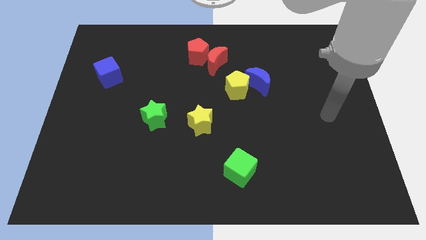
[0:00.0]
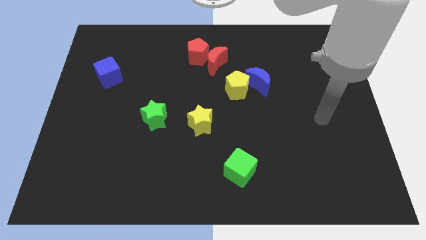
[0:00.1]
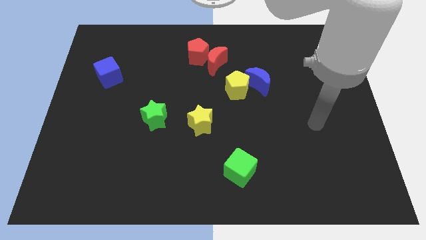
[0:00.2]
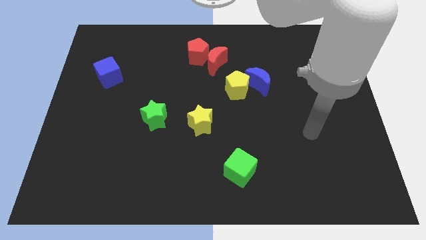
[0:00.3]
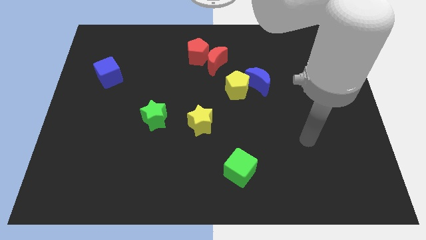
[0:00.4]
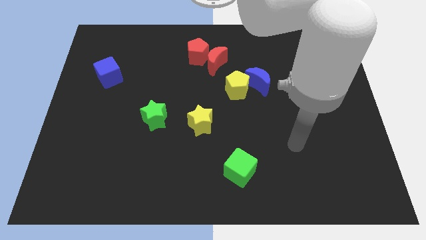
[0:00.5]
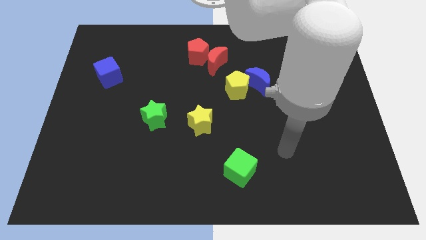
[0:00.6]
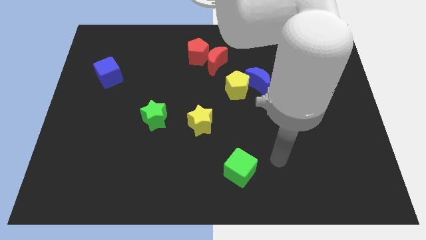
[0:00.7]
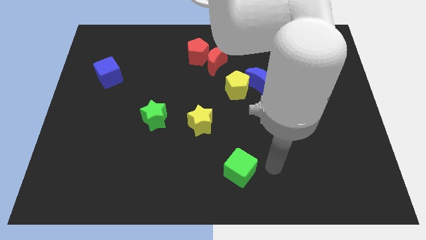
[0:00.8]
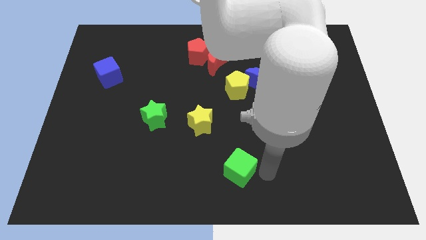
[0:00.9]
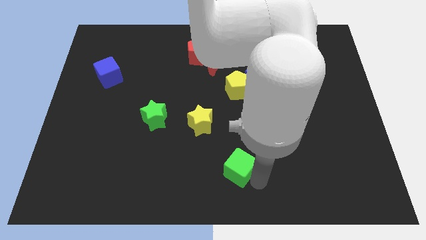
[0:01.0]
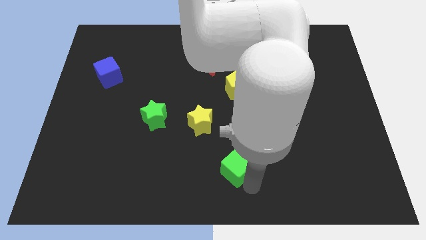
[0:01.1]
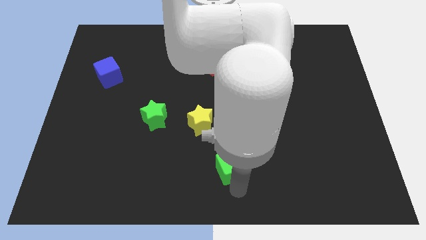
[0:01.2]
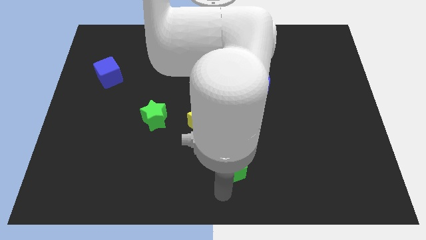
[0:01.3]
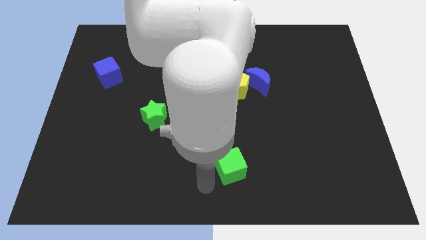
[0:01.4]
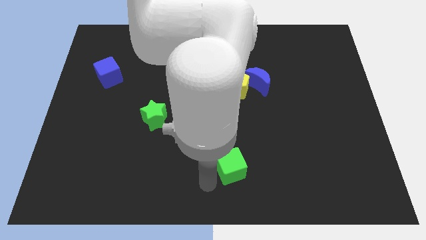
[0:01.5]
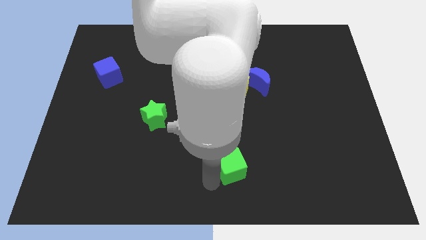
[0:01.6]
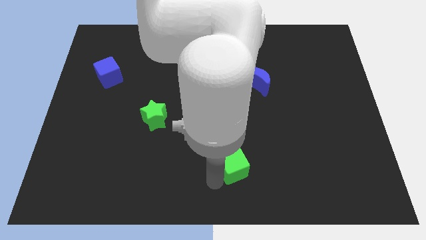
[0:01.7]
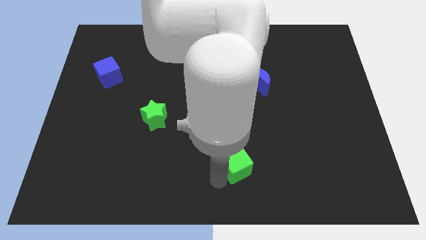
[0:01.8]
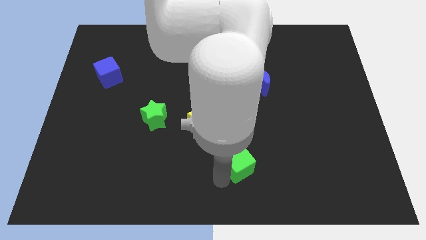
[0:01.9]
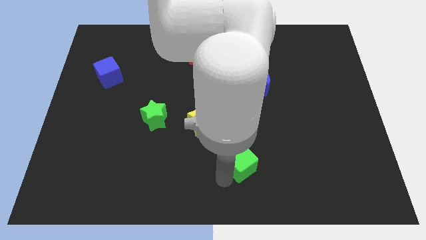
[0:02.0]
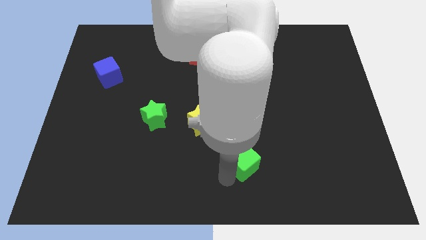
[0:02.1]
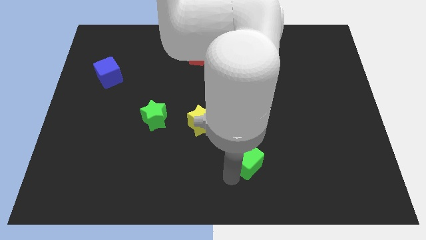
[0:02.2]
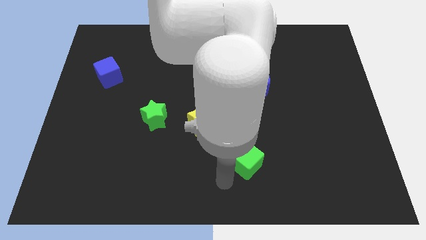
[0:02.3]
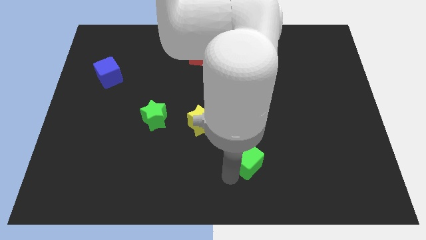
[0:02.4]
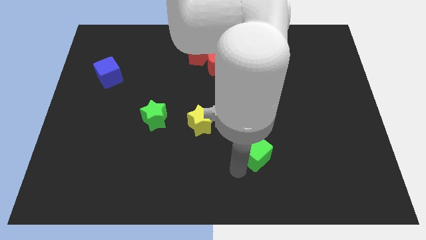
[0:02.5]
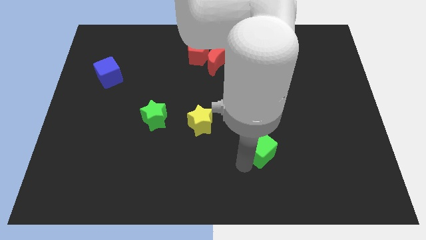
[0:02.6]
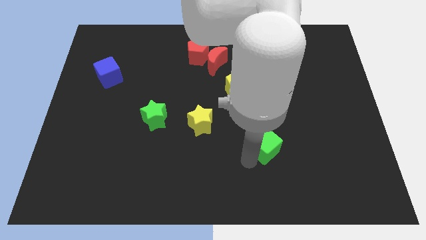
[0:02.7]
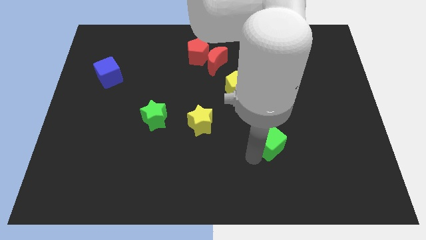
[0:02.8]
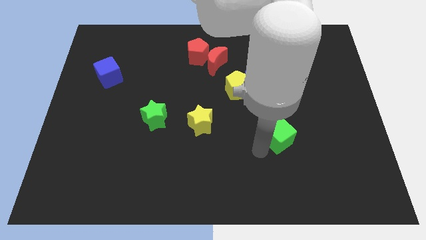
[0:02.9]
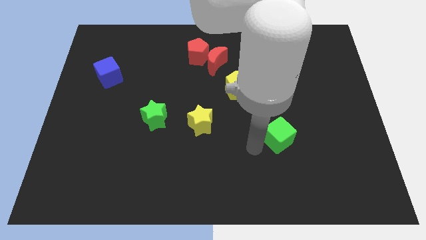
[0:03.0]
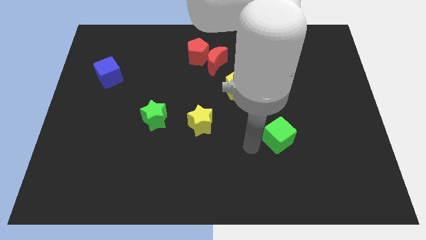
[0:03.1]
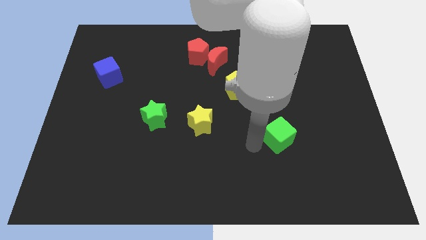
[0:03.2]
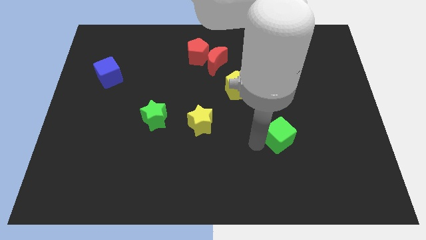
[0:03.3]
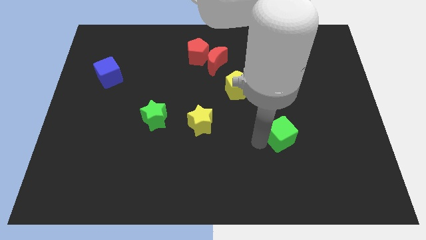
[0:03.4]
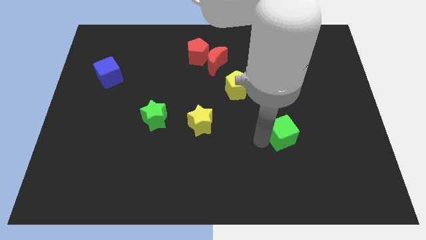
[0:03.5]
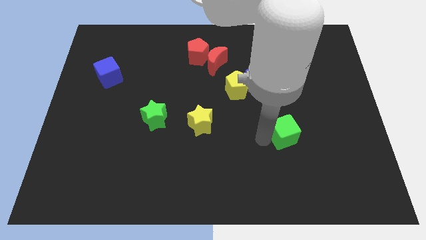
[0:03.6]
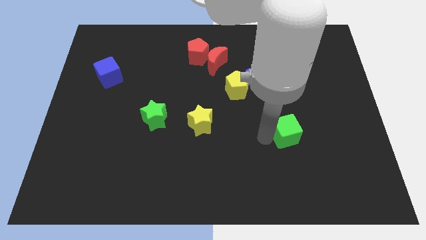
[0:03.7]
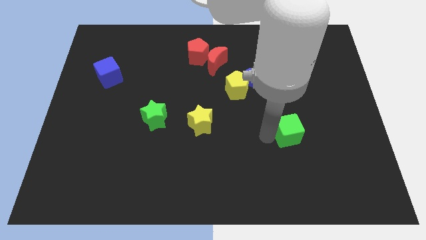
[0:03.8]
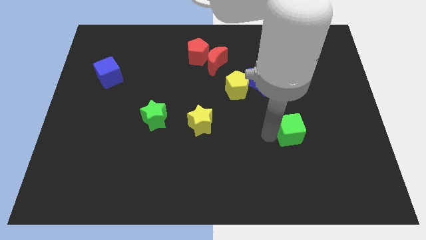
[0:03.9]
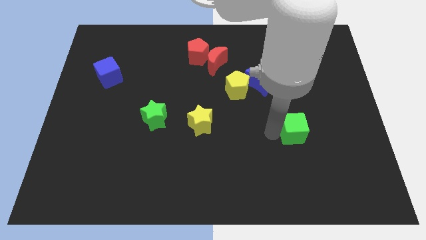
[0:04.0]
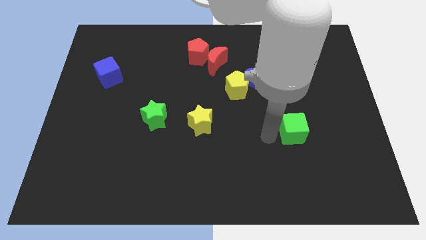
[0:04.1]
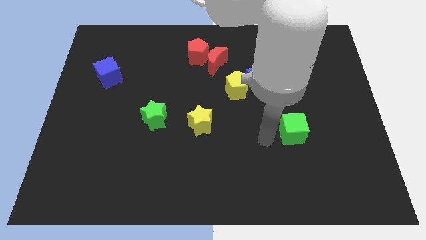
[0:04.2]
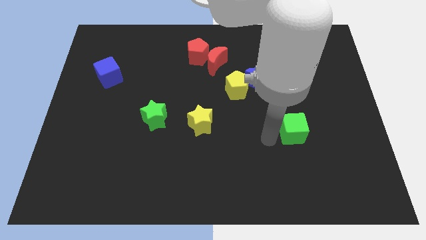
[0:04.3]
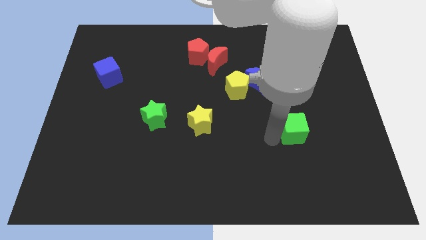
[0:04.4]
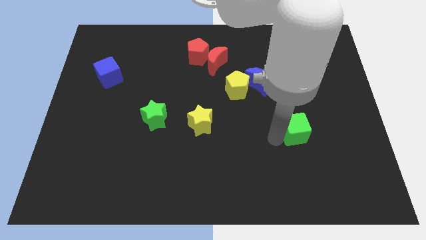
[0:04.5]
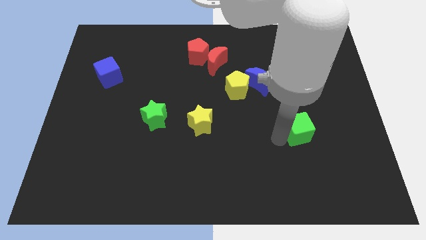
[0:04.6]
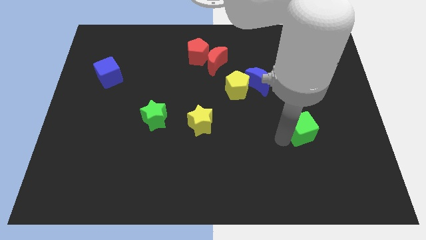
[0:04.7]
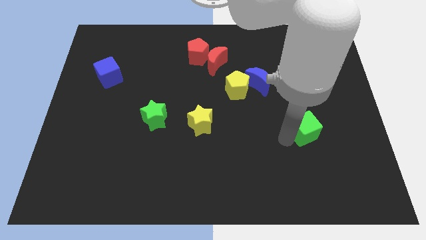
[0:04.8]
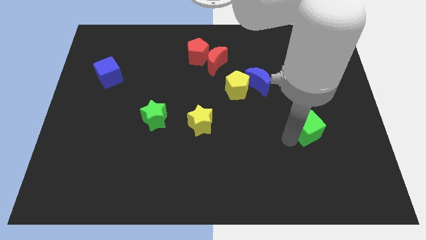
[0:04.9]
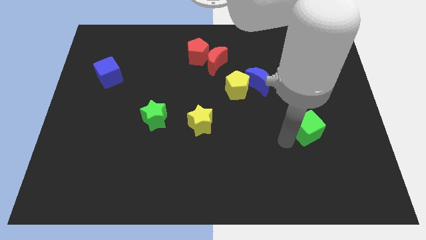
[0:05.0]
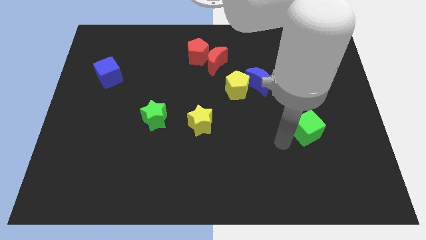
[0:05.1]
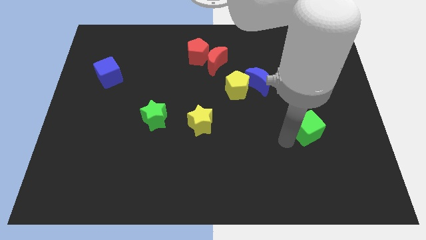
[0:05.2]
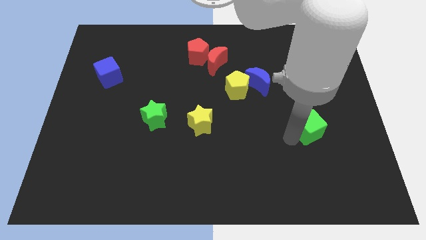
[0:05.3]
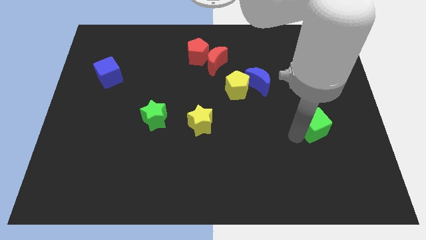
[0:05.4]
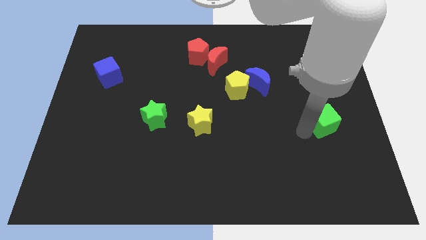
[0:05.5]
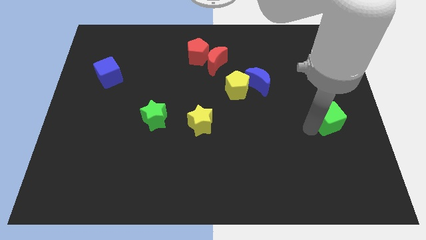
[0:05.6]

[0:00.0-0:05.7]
put the green cube to the right side of the board
